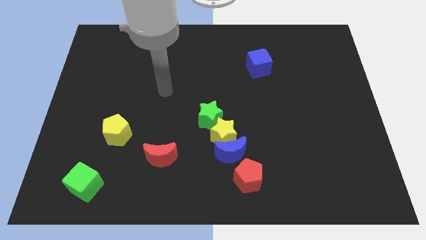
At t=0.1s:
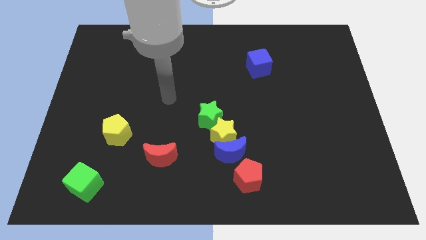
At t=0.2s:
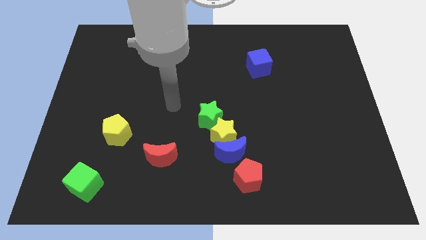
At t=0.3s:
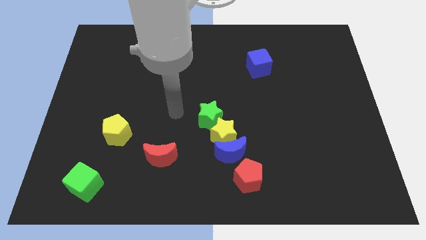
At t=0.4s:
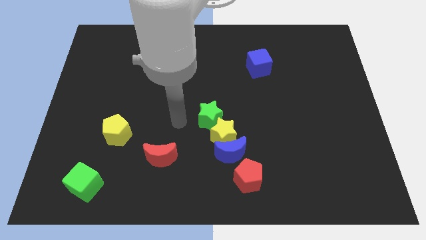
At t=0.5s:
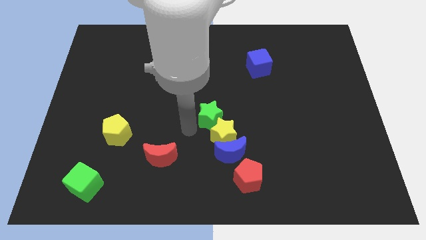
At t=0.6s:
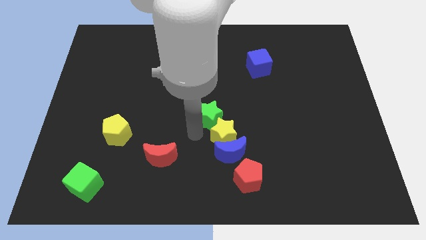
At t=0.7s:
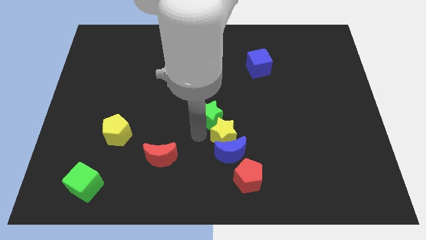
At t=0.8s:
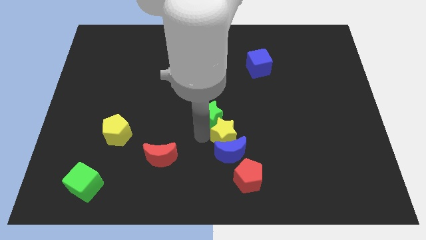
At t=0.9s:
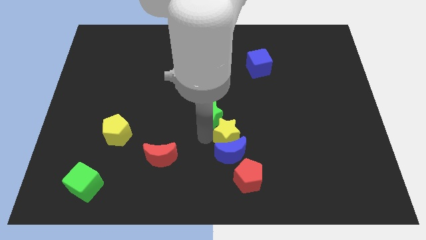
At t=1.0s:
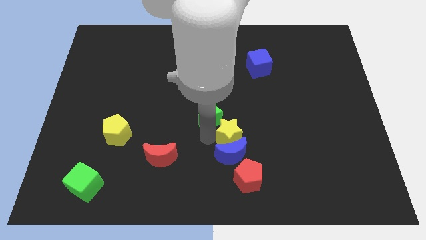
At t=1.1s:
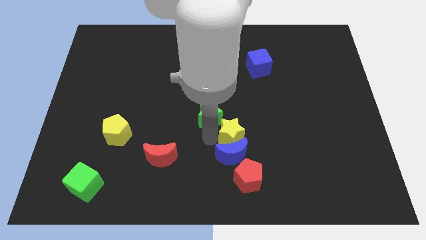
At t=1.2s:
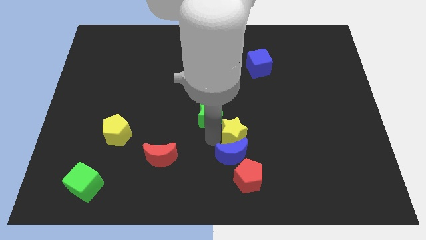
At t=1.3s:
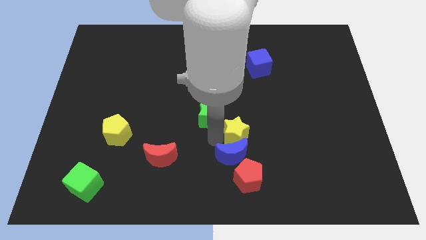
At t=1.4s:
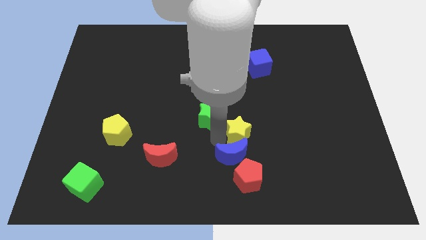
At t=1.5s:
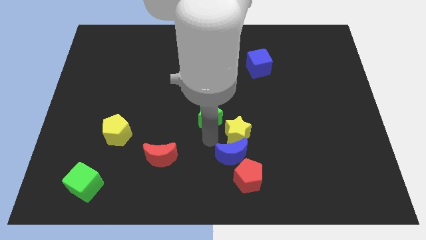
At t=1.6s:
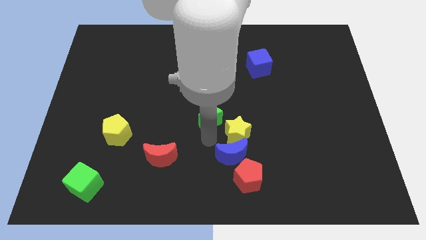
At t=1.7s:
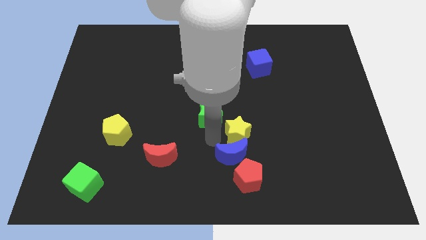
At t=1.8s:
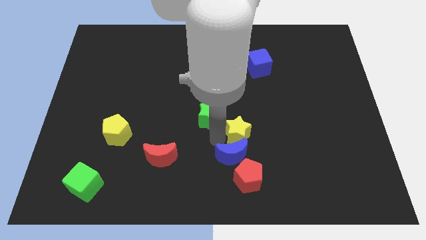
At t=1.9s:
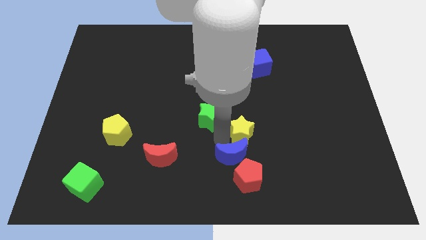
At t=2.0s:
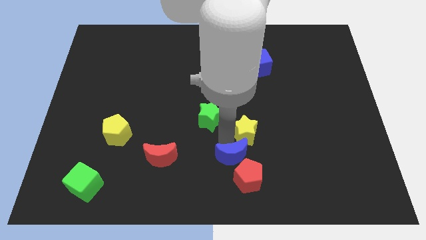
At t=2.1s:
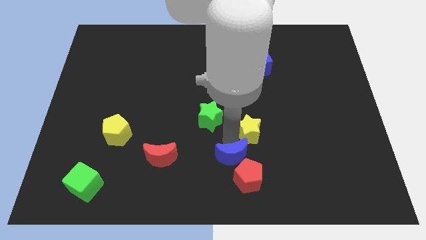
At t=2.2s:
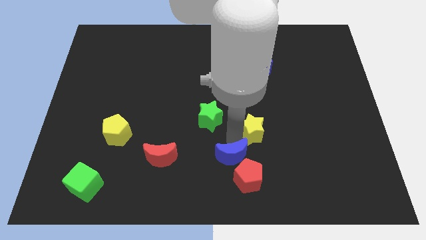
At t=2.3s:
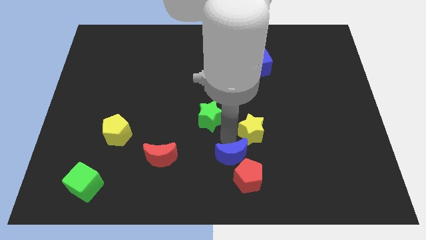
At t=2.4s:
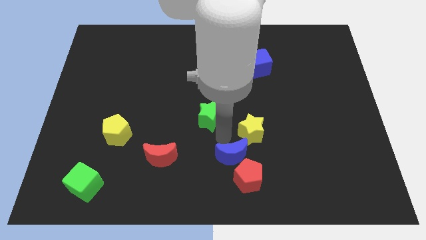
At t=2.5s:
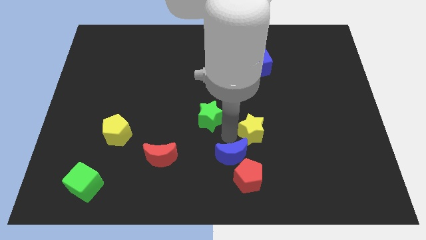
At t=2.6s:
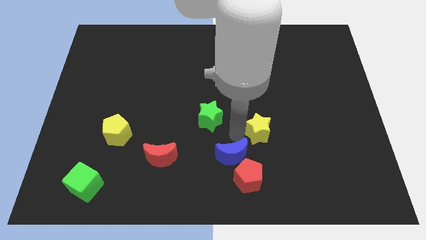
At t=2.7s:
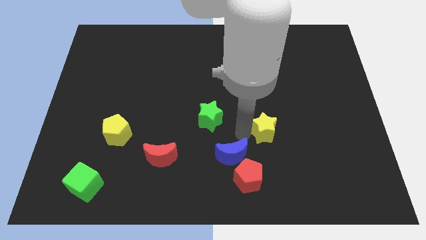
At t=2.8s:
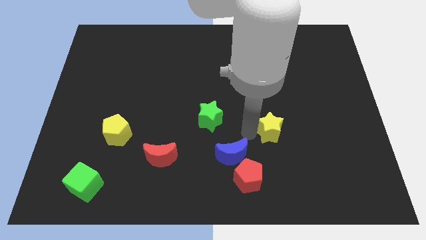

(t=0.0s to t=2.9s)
pull the yellow star apart from the blue moon and green star

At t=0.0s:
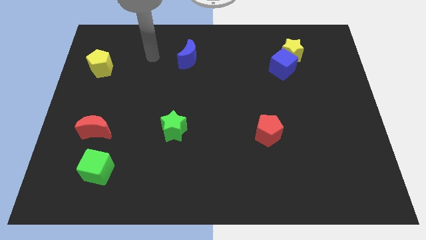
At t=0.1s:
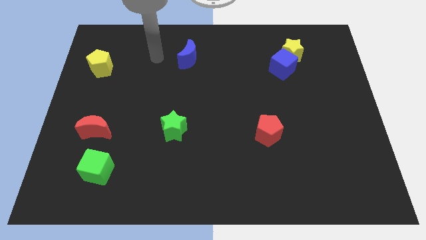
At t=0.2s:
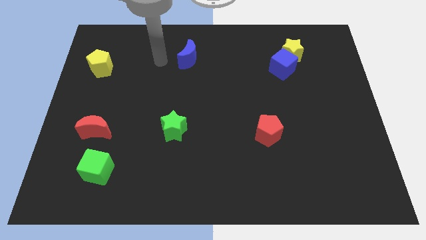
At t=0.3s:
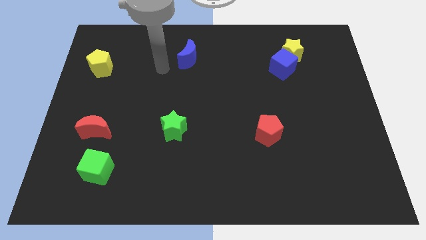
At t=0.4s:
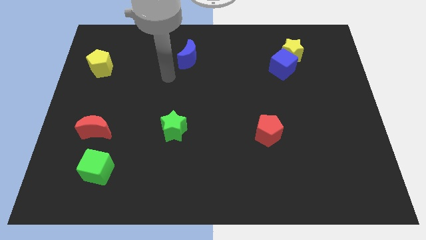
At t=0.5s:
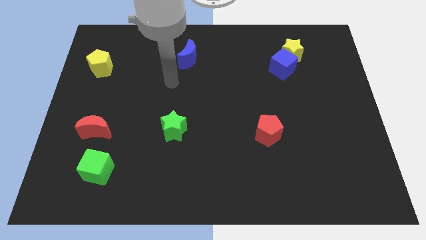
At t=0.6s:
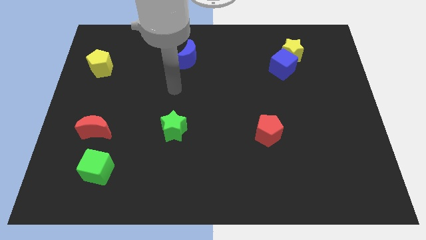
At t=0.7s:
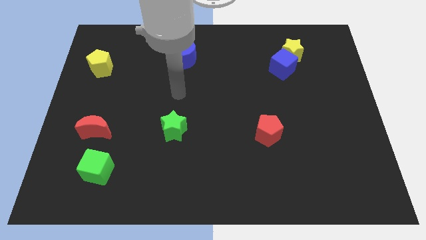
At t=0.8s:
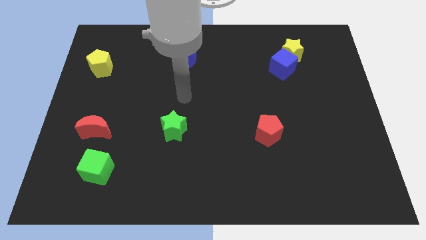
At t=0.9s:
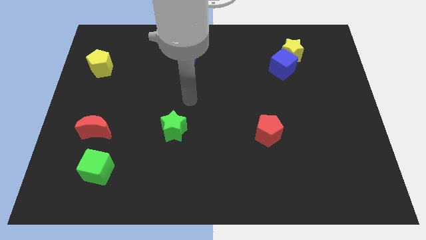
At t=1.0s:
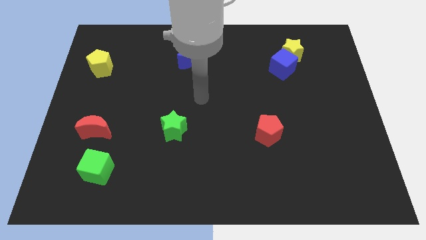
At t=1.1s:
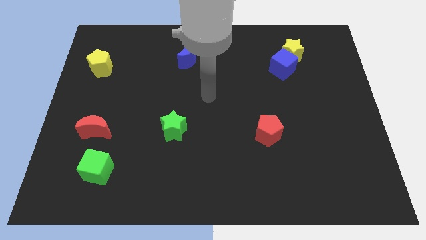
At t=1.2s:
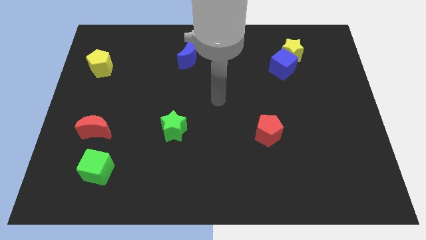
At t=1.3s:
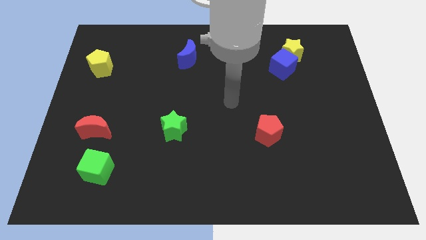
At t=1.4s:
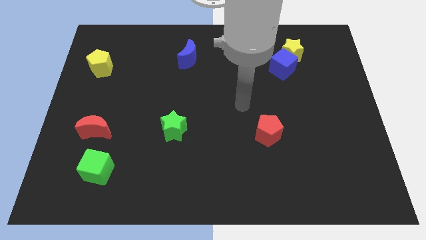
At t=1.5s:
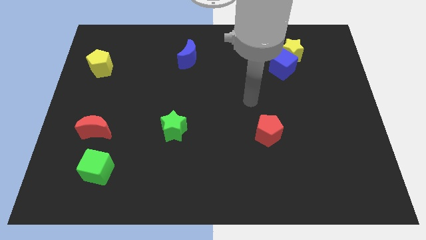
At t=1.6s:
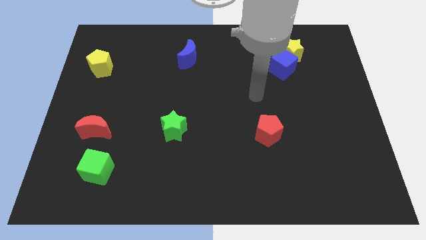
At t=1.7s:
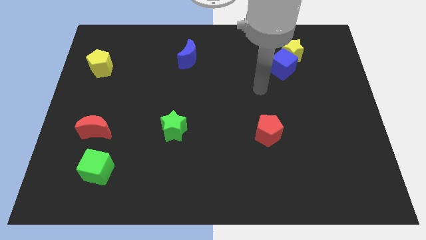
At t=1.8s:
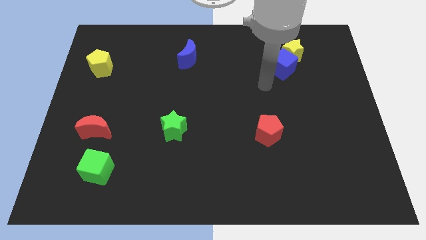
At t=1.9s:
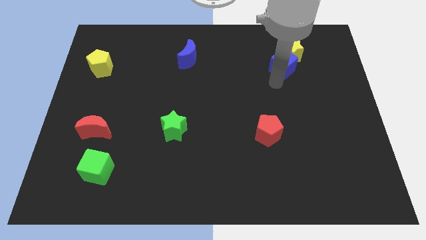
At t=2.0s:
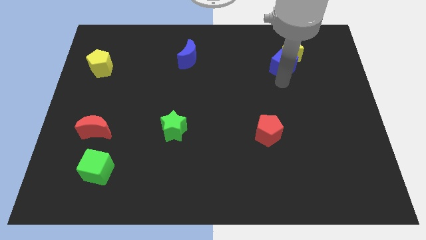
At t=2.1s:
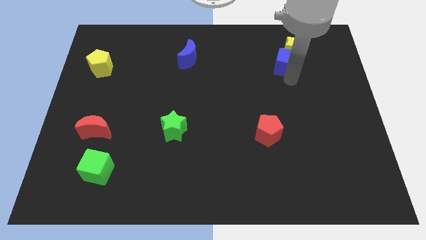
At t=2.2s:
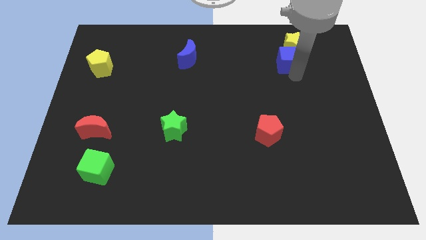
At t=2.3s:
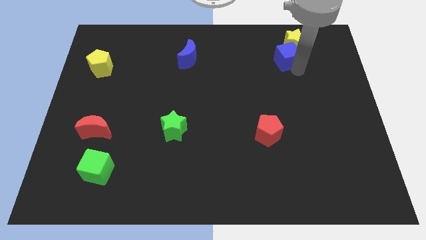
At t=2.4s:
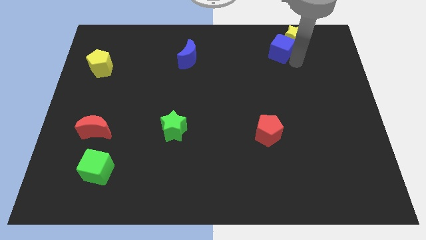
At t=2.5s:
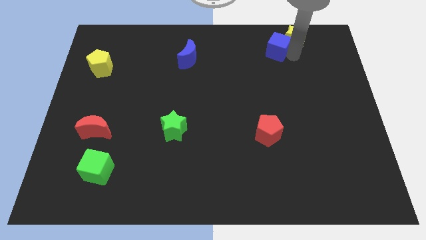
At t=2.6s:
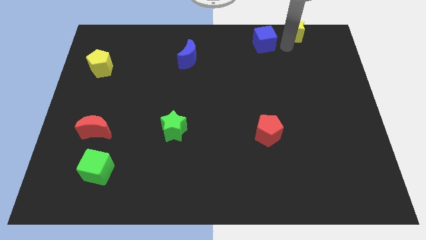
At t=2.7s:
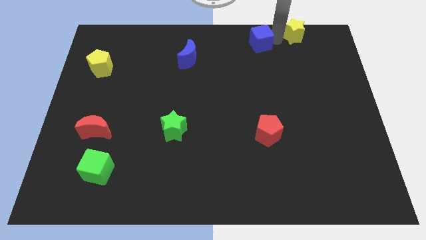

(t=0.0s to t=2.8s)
separate the blue cube from the yellow star

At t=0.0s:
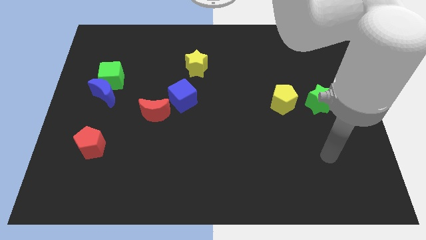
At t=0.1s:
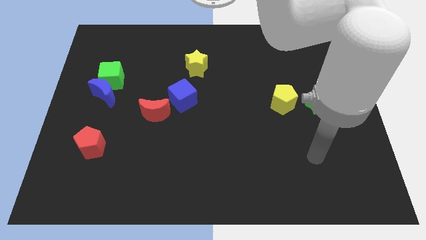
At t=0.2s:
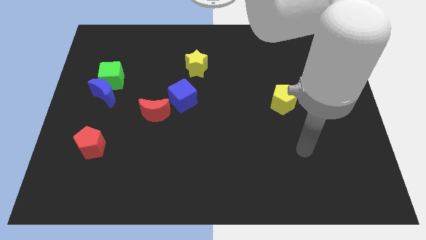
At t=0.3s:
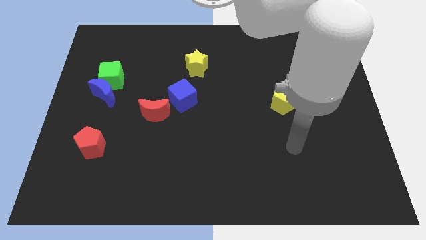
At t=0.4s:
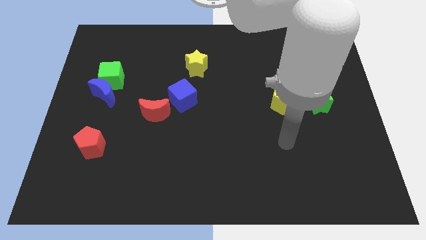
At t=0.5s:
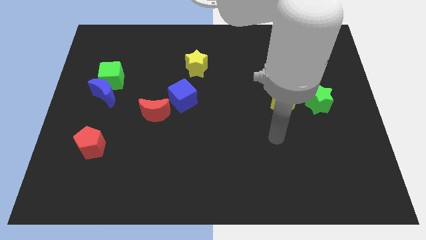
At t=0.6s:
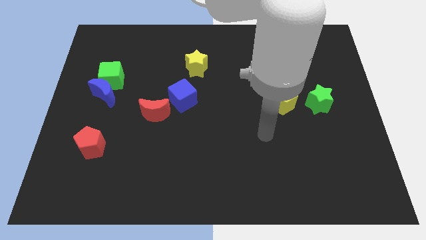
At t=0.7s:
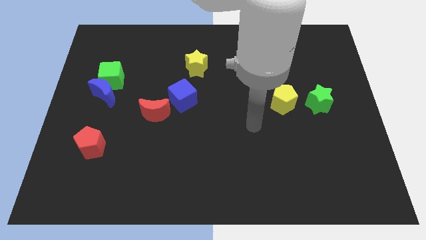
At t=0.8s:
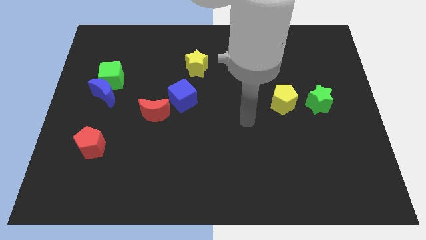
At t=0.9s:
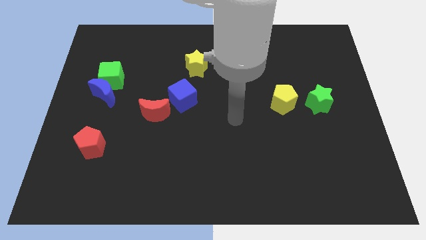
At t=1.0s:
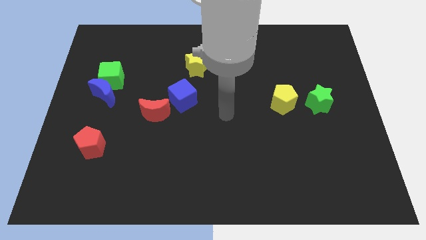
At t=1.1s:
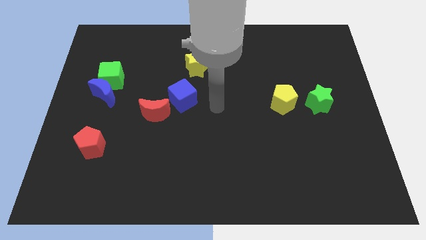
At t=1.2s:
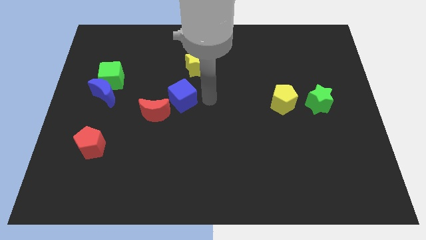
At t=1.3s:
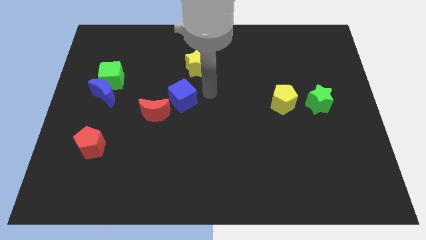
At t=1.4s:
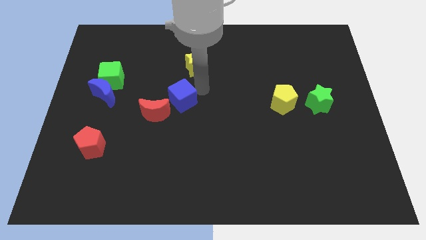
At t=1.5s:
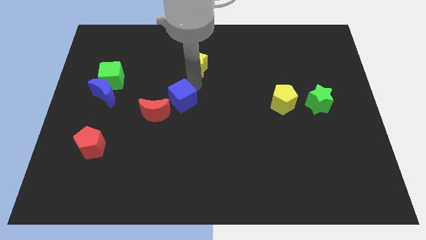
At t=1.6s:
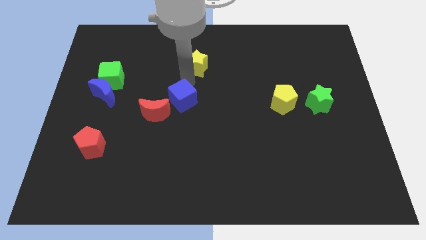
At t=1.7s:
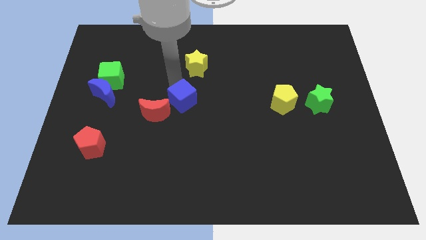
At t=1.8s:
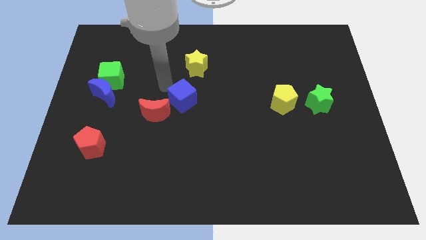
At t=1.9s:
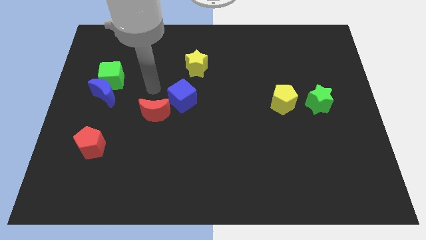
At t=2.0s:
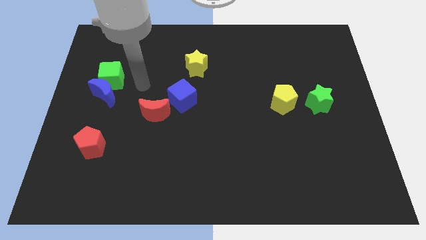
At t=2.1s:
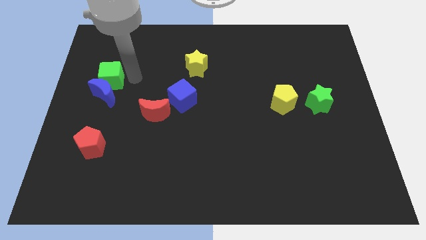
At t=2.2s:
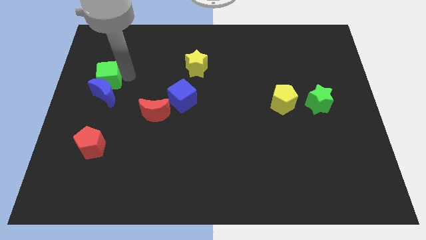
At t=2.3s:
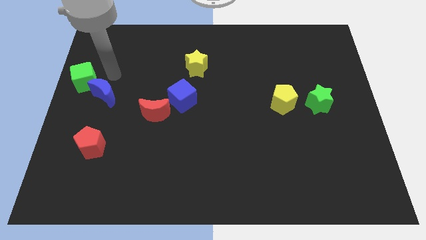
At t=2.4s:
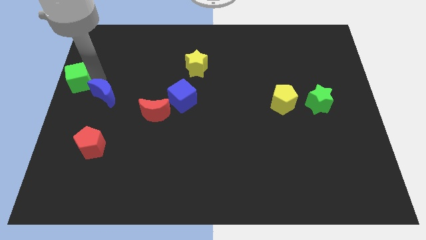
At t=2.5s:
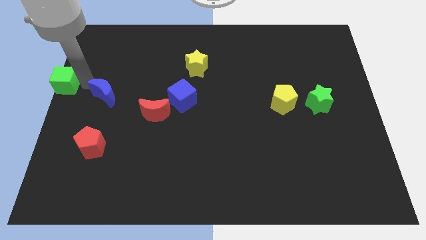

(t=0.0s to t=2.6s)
pull the blue moon apart from the green cube

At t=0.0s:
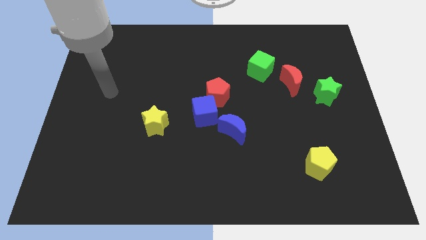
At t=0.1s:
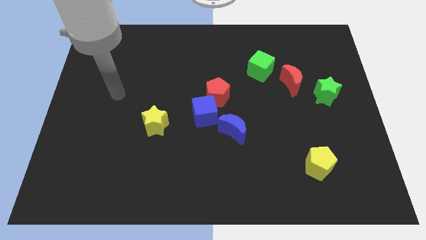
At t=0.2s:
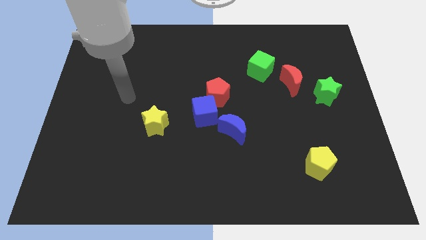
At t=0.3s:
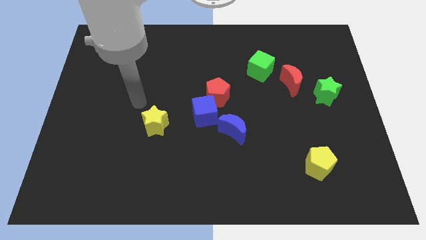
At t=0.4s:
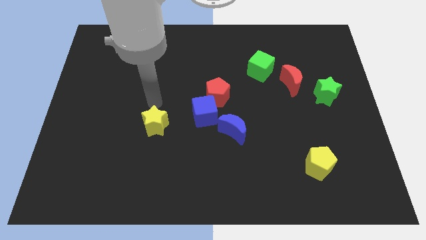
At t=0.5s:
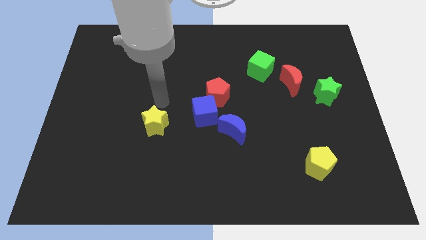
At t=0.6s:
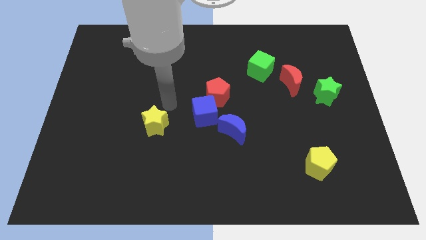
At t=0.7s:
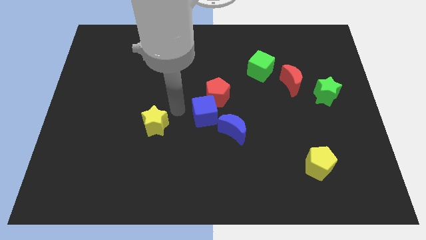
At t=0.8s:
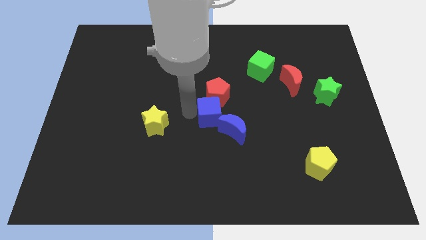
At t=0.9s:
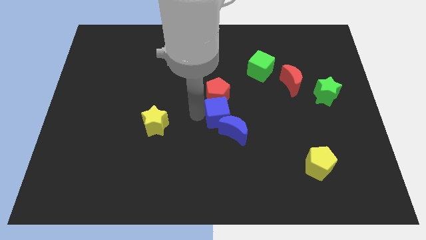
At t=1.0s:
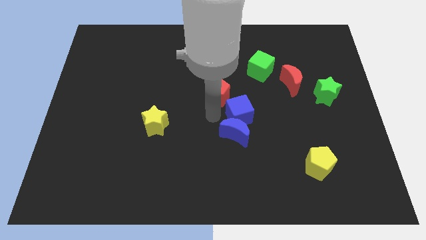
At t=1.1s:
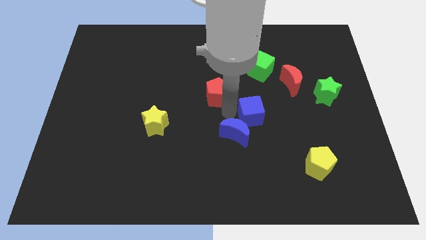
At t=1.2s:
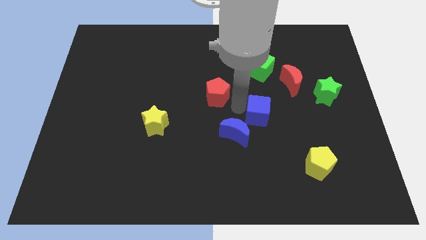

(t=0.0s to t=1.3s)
separate the red pentagon from the blue cube
